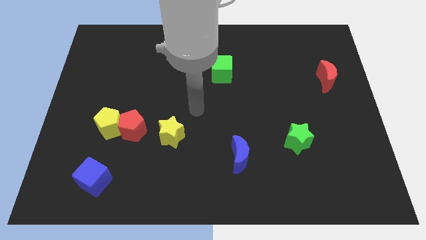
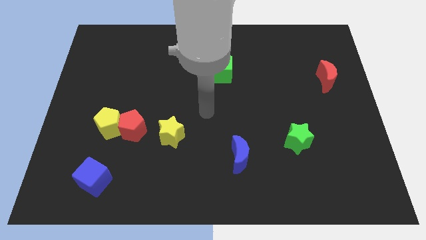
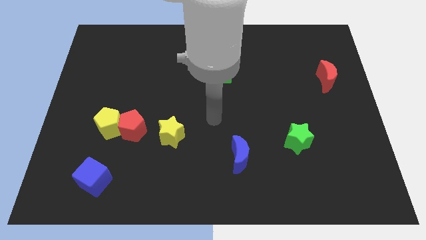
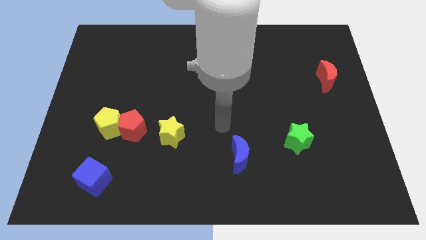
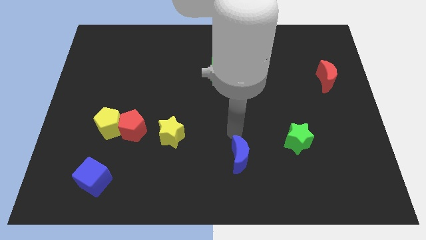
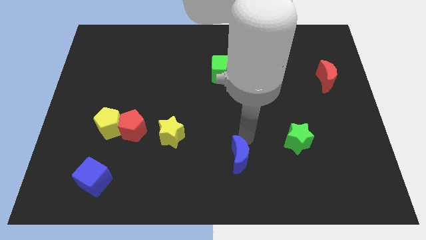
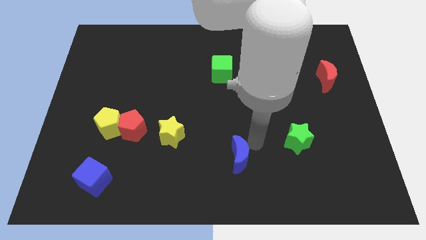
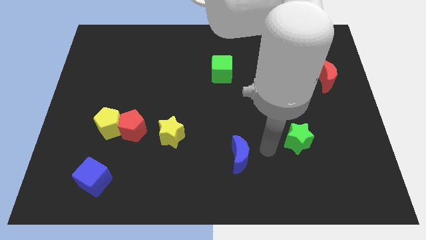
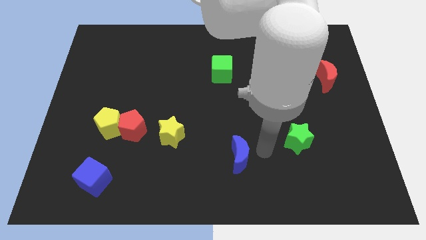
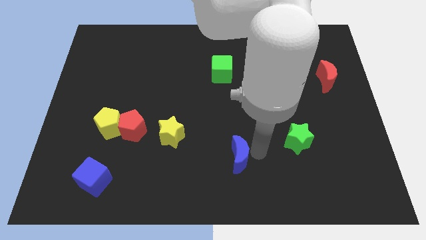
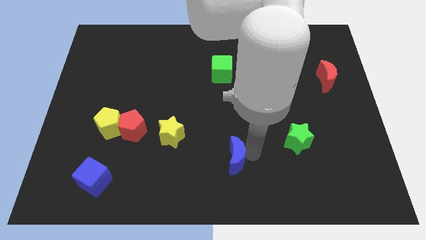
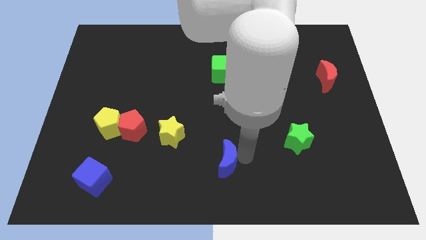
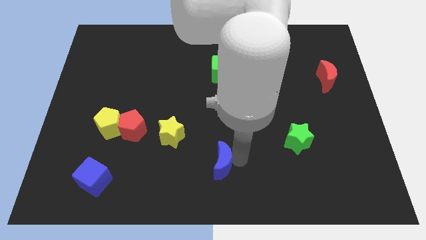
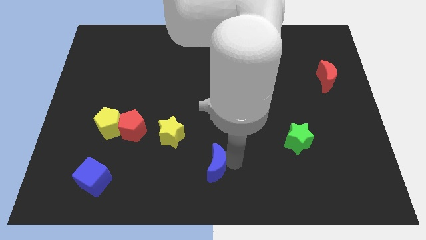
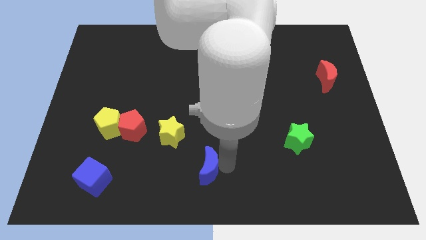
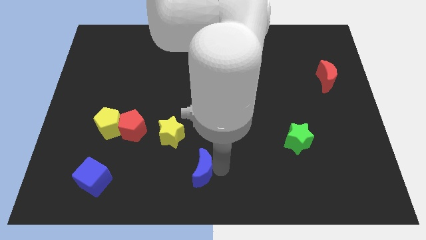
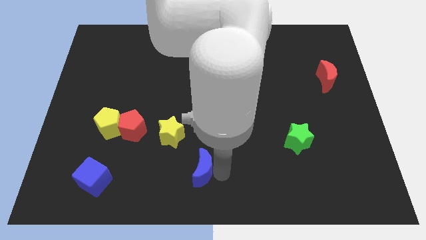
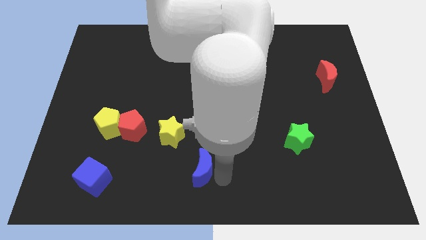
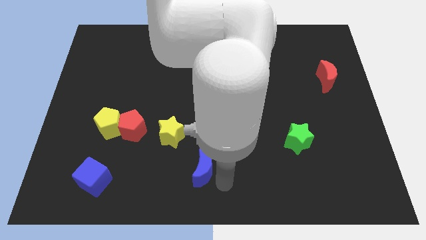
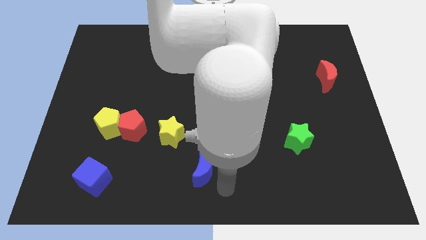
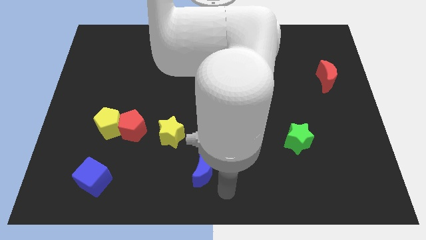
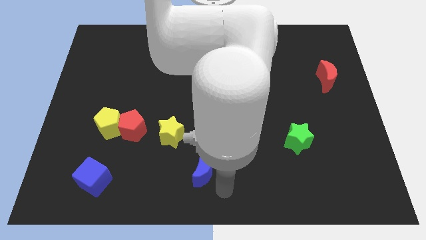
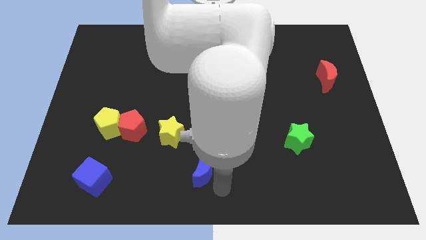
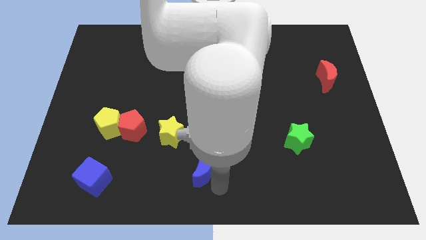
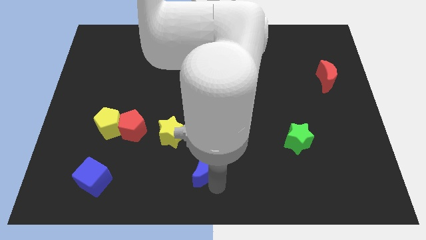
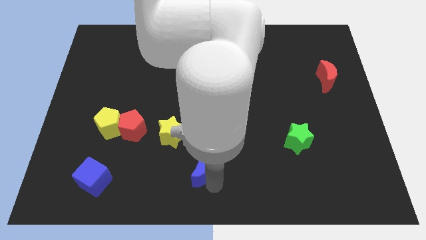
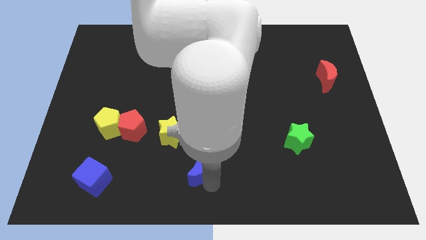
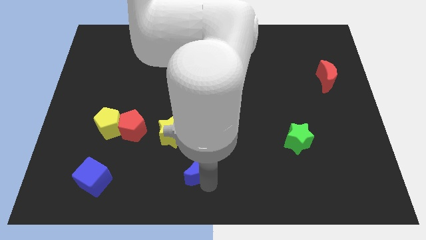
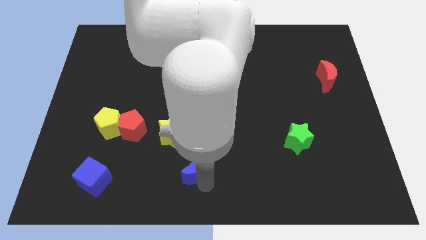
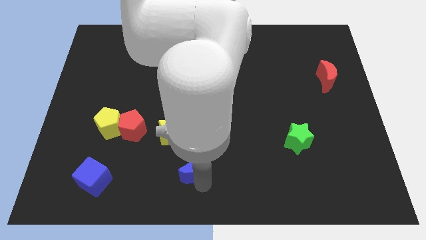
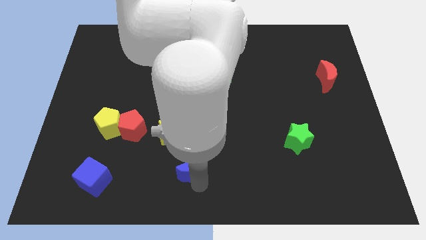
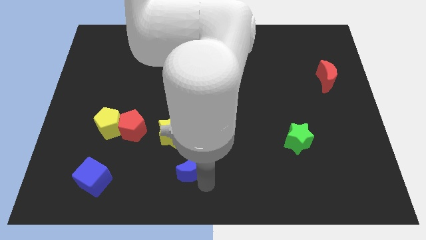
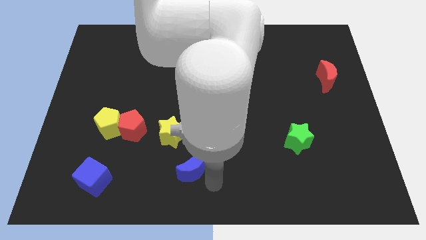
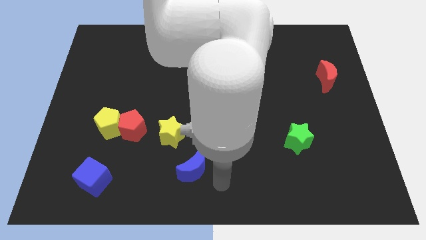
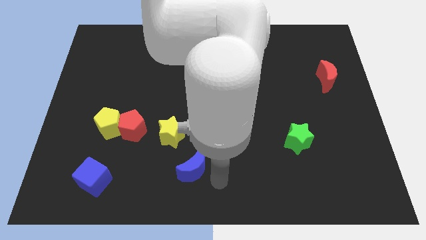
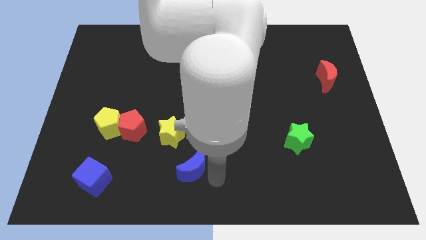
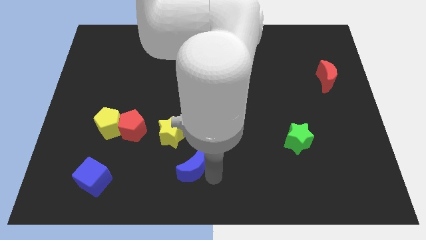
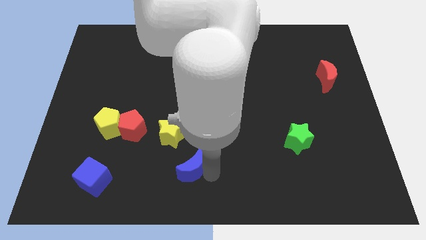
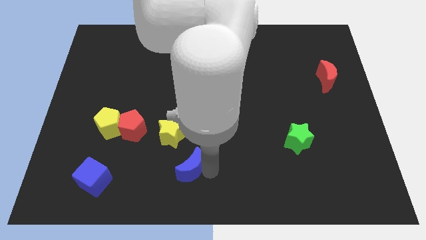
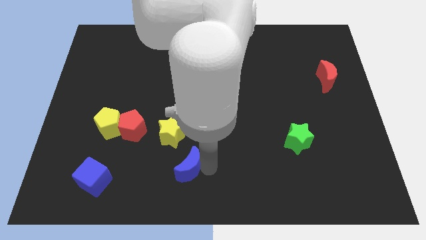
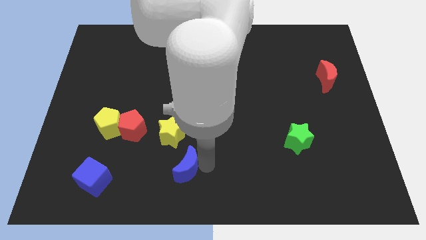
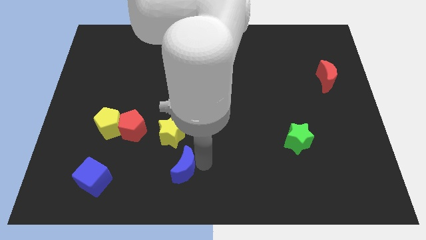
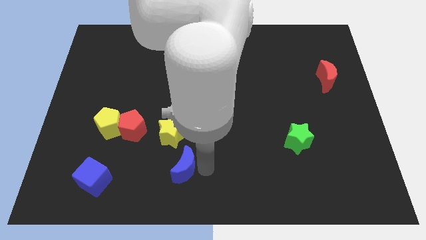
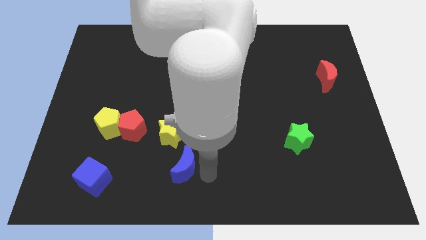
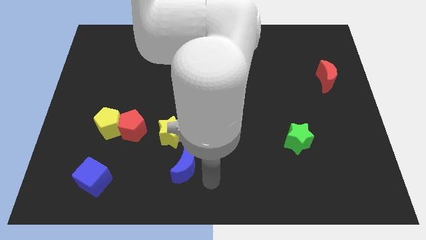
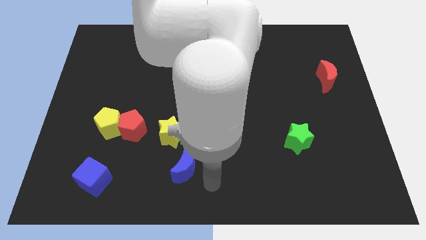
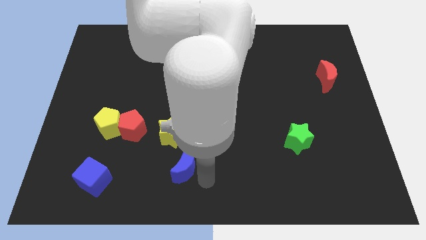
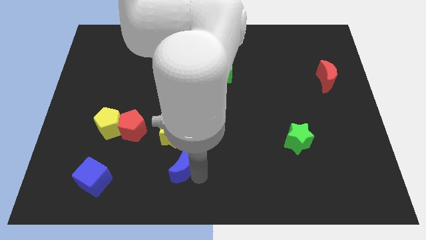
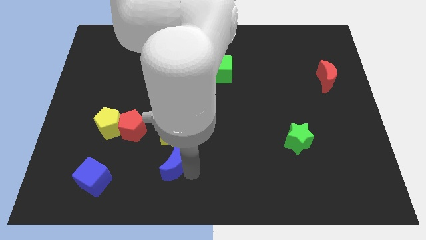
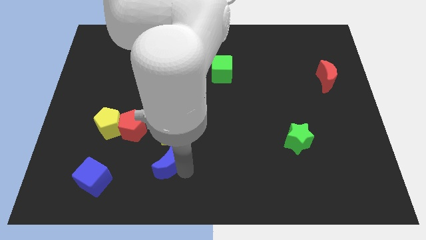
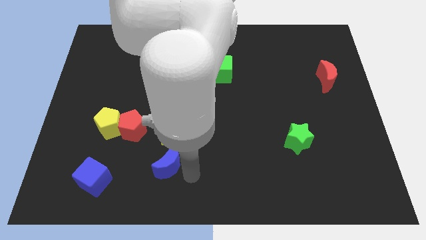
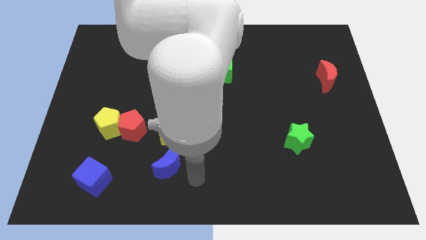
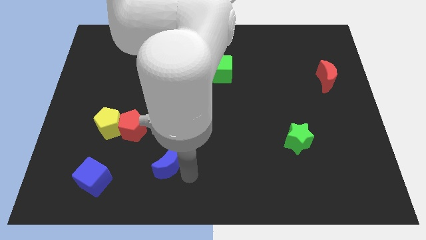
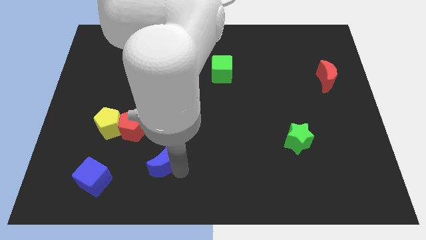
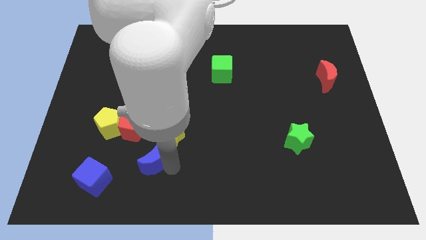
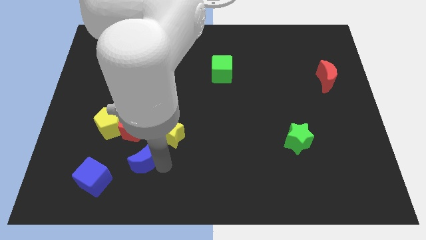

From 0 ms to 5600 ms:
slide the blue moon to the bottom right side of the yellow pentagon

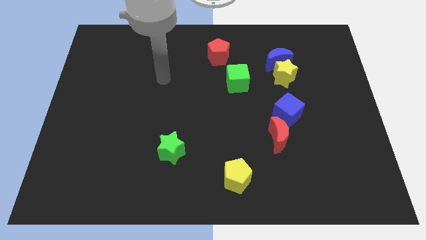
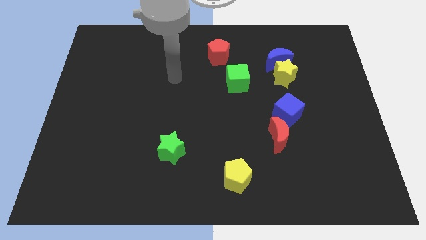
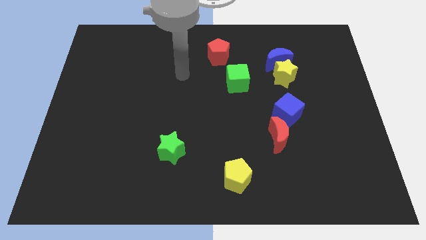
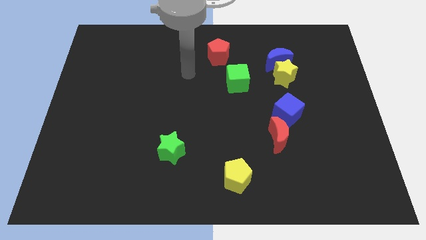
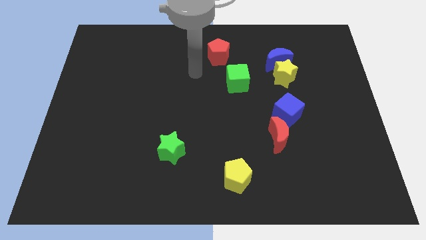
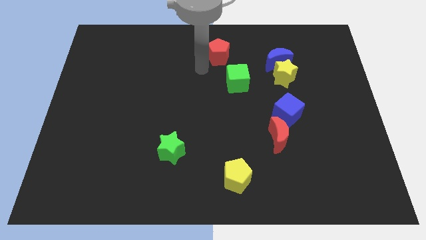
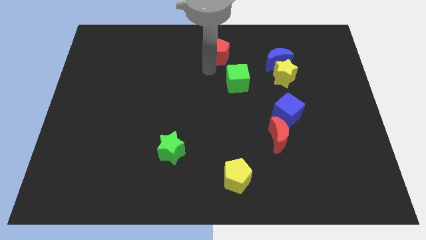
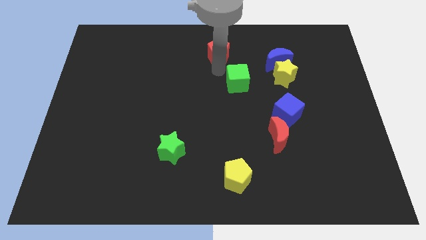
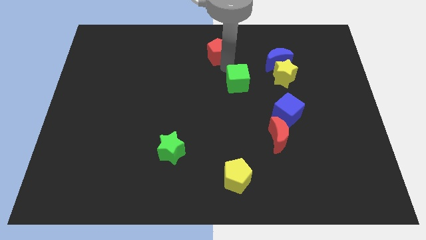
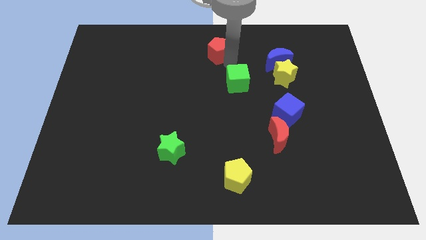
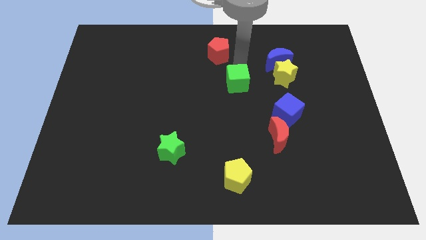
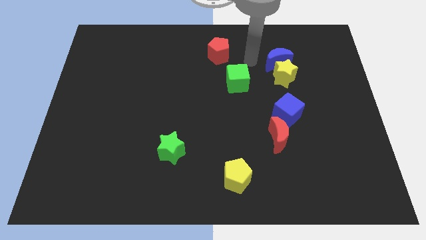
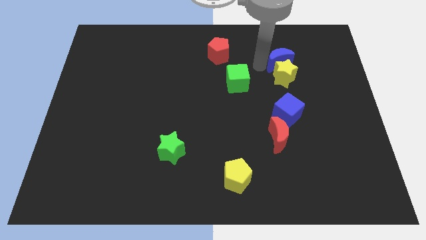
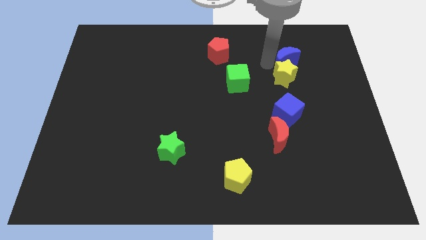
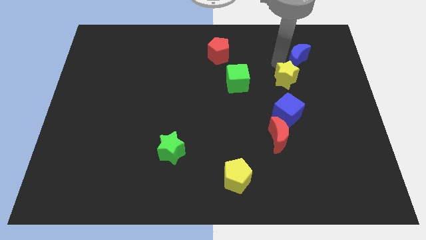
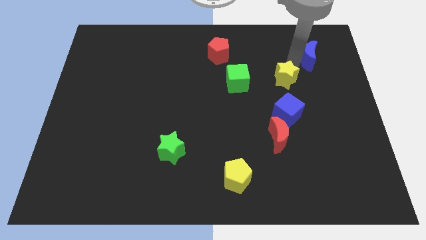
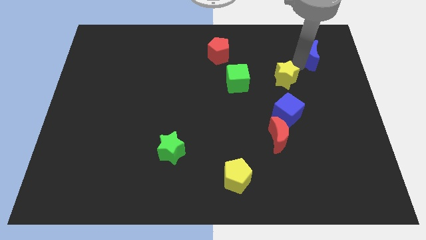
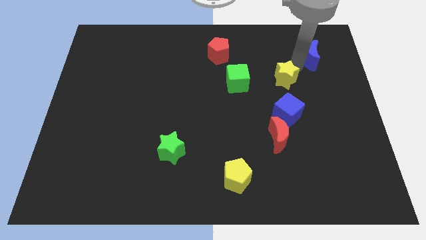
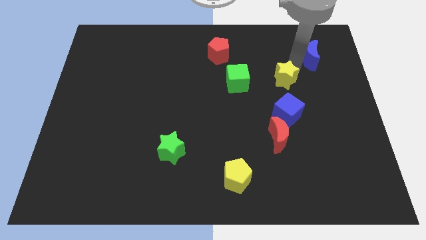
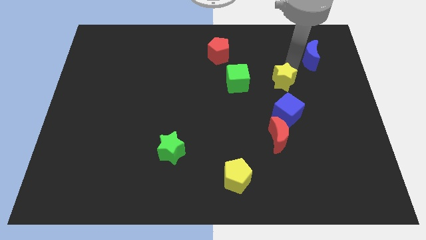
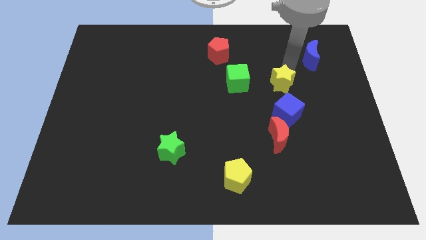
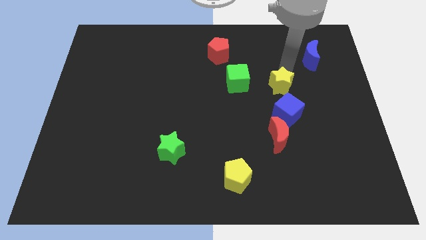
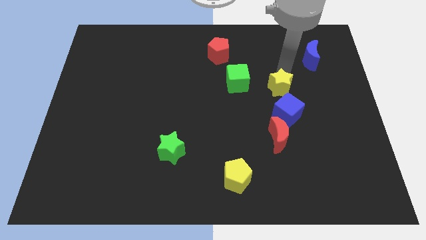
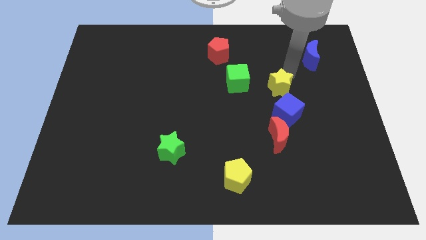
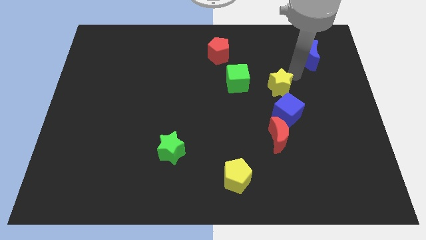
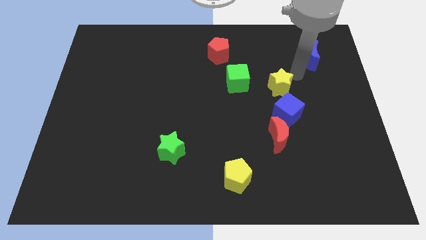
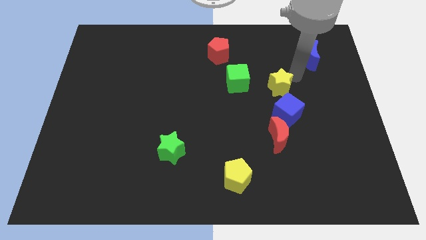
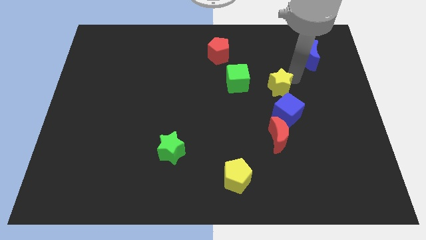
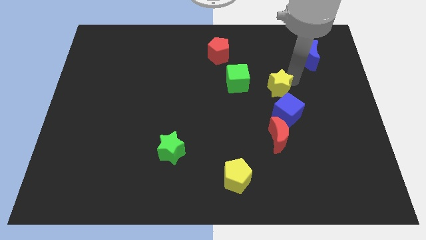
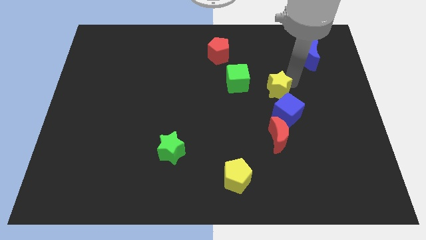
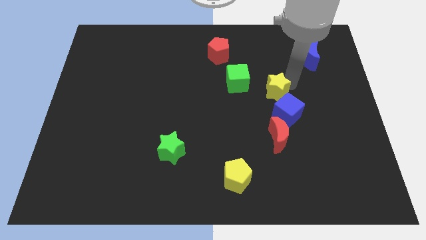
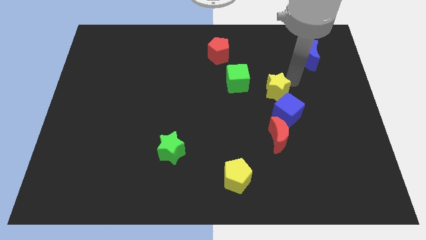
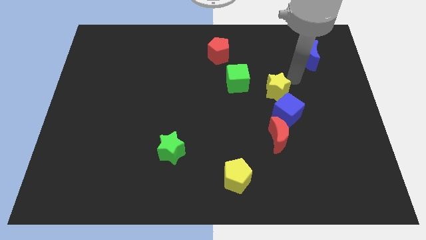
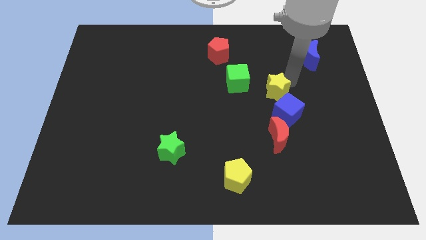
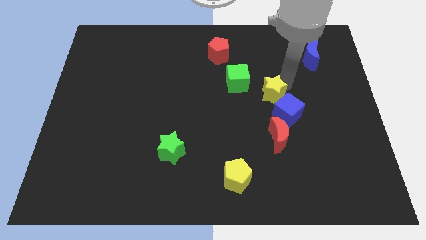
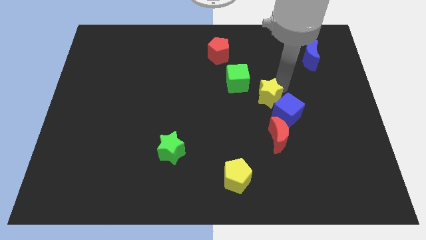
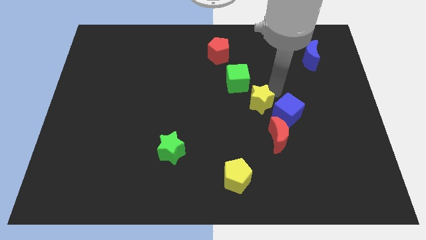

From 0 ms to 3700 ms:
push the yellow star to the left of the blue cube
